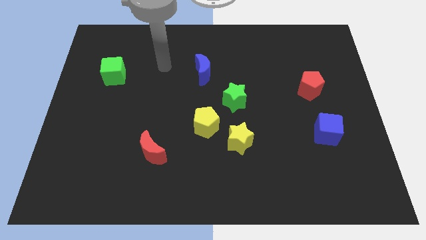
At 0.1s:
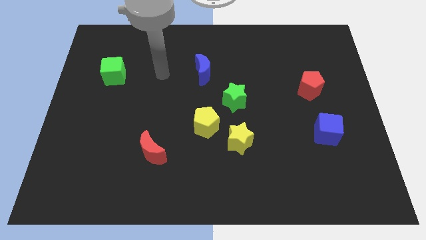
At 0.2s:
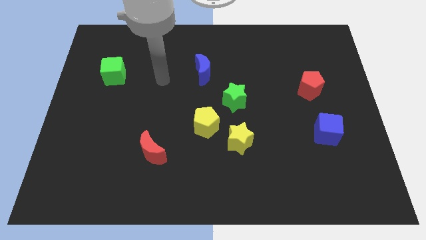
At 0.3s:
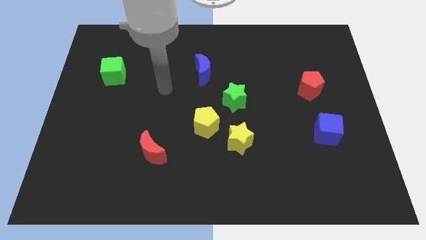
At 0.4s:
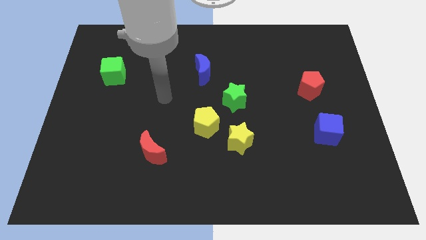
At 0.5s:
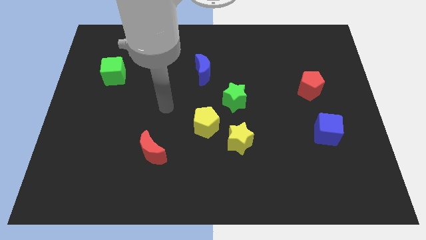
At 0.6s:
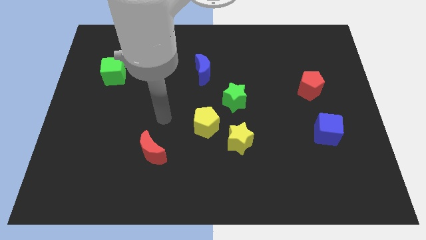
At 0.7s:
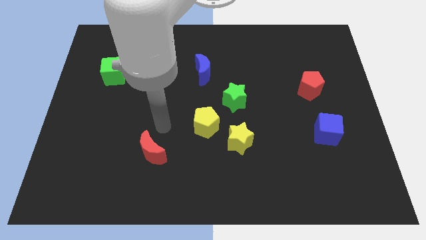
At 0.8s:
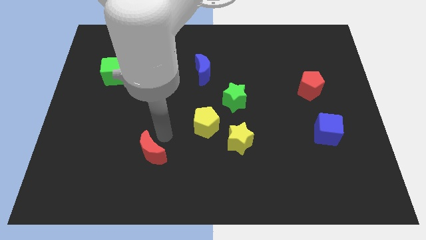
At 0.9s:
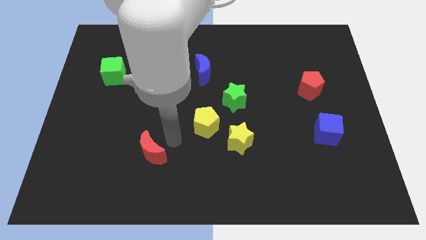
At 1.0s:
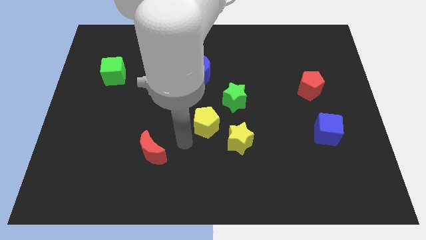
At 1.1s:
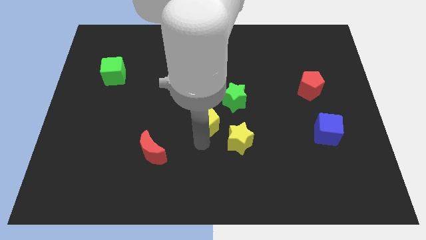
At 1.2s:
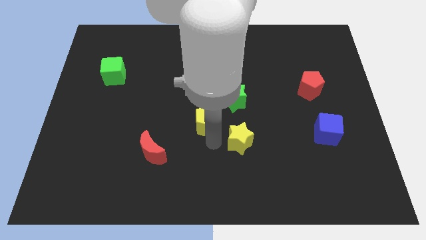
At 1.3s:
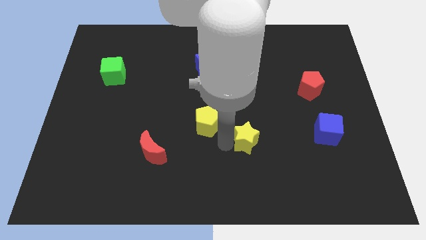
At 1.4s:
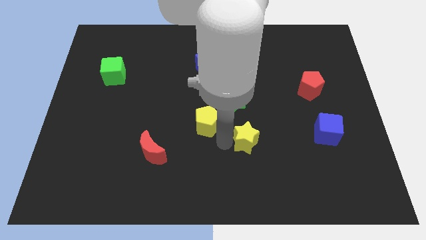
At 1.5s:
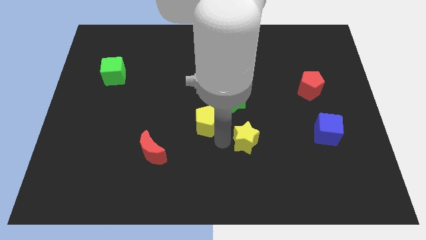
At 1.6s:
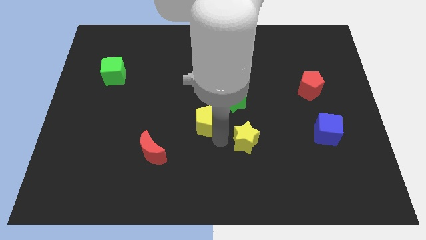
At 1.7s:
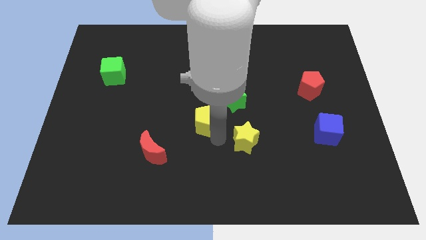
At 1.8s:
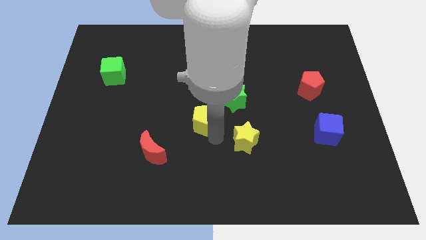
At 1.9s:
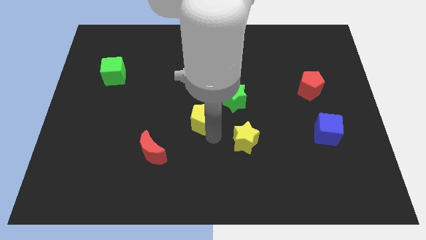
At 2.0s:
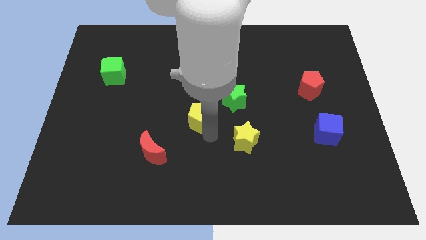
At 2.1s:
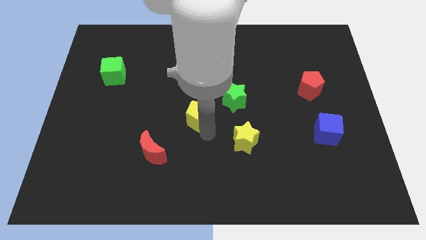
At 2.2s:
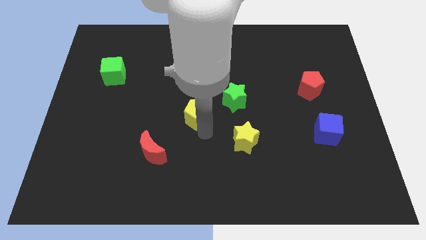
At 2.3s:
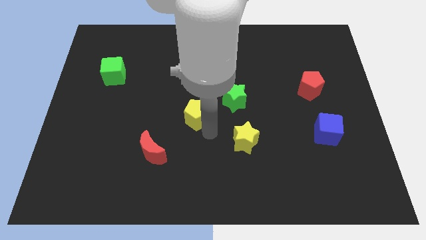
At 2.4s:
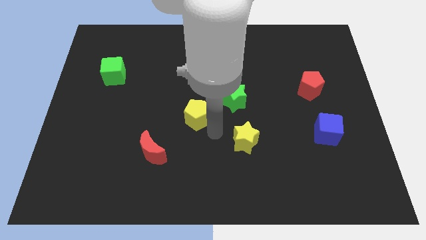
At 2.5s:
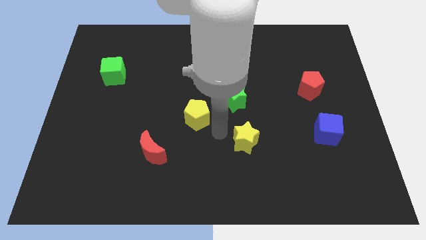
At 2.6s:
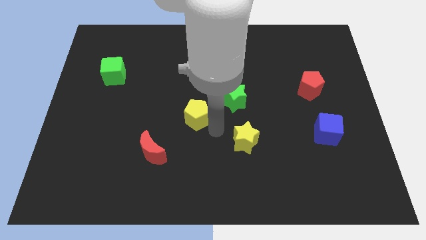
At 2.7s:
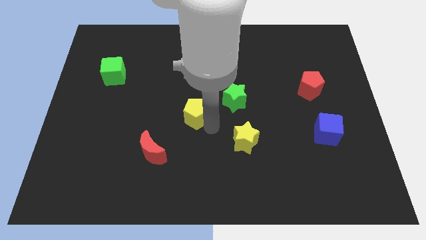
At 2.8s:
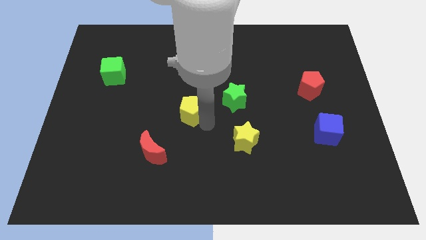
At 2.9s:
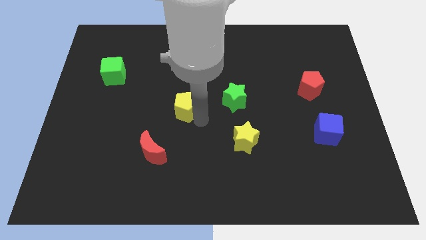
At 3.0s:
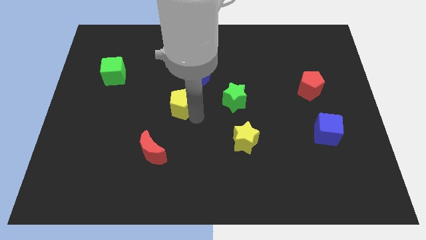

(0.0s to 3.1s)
slightly push the yellow pentagon upwards and left

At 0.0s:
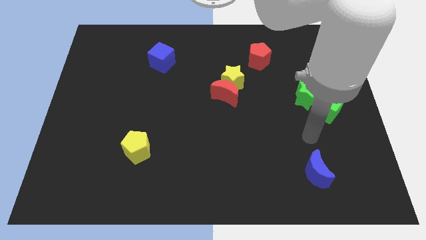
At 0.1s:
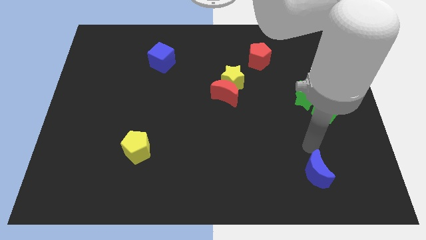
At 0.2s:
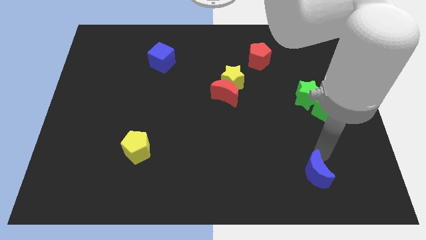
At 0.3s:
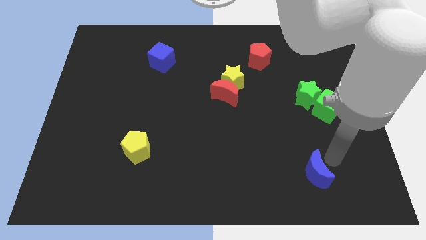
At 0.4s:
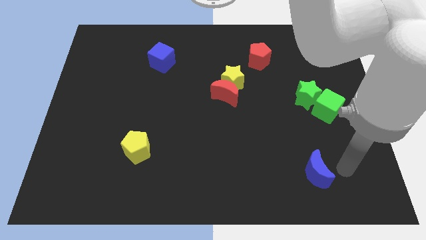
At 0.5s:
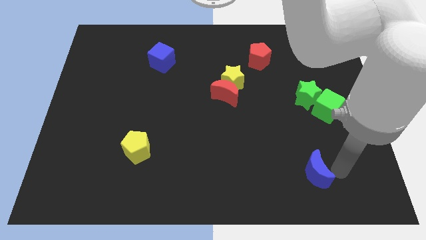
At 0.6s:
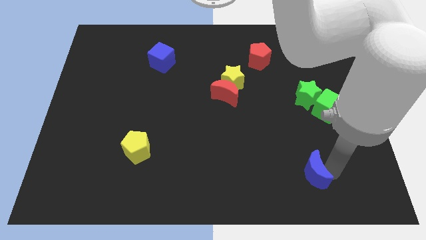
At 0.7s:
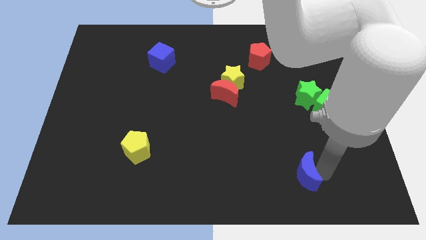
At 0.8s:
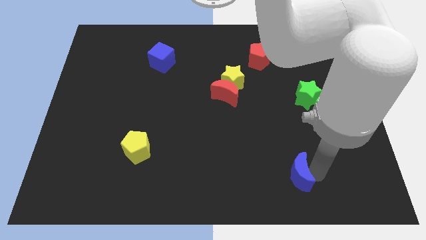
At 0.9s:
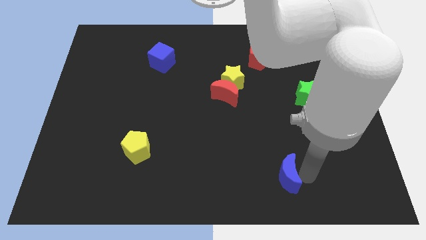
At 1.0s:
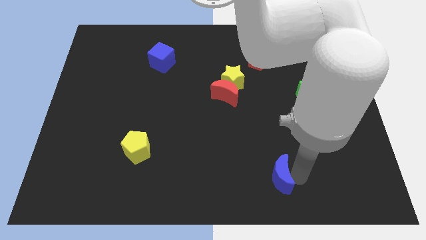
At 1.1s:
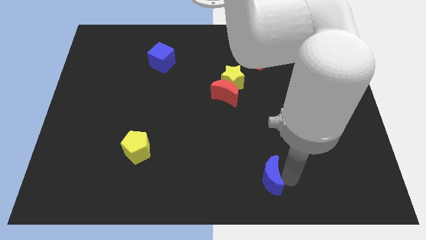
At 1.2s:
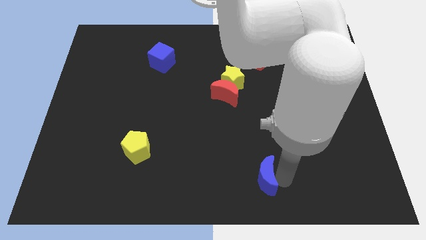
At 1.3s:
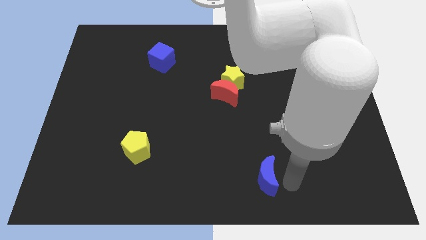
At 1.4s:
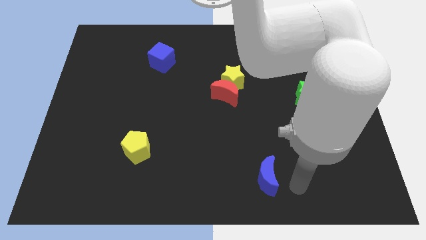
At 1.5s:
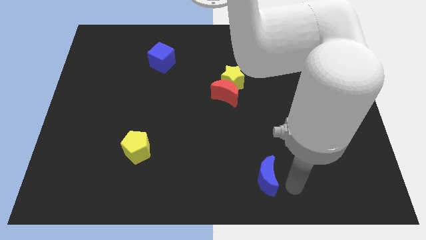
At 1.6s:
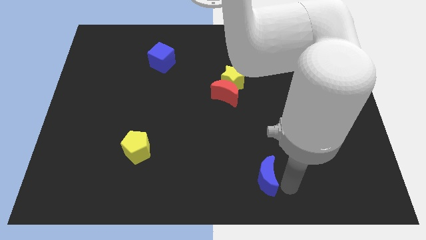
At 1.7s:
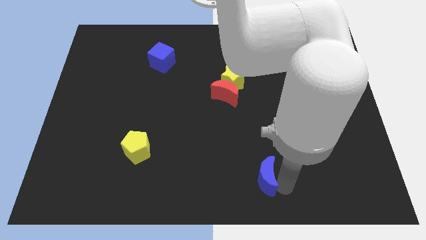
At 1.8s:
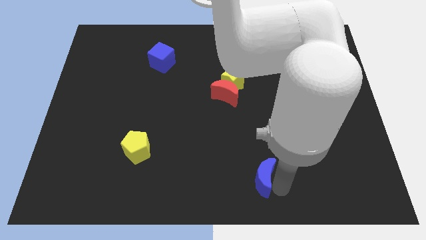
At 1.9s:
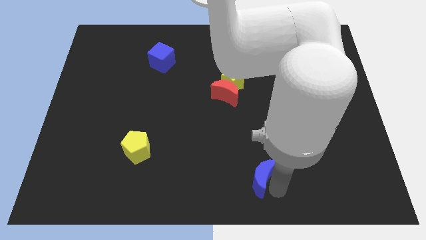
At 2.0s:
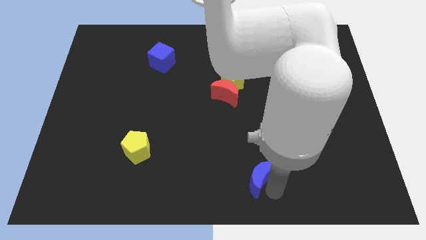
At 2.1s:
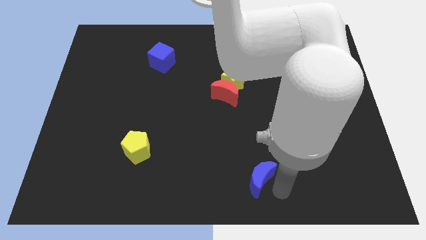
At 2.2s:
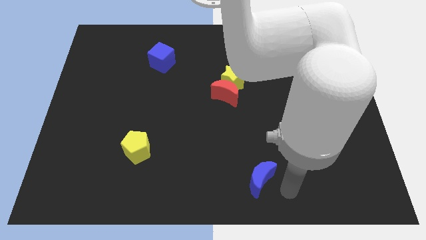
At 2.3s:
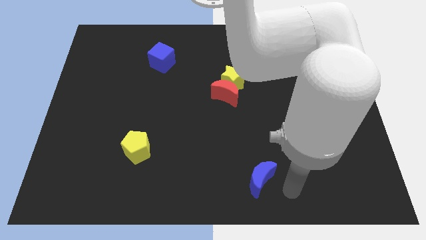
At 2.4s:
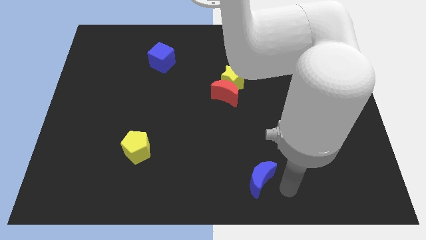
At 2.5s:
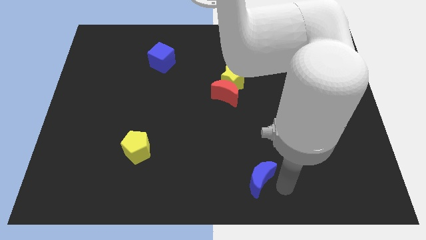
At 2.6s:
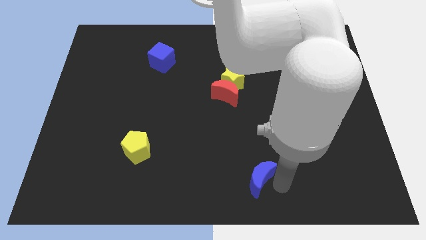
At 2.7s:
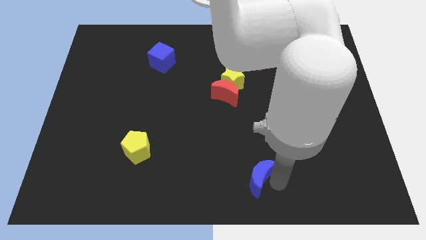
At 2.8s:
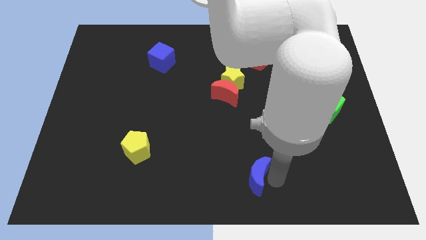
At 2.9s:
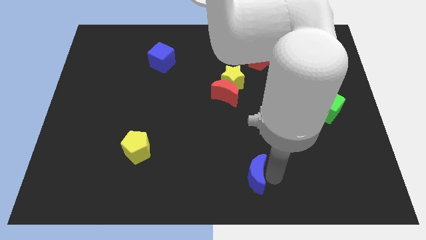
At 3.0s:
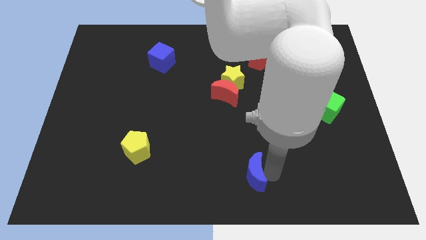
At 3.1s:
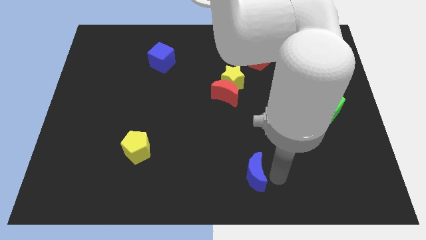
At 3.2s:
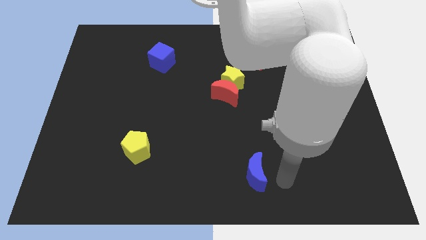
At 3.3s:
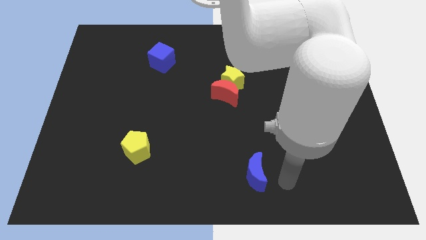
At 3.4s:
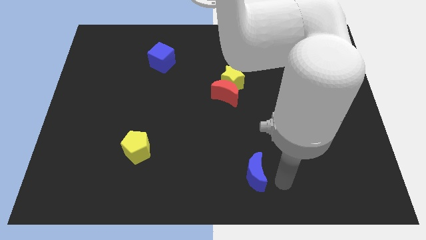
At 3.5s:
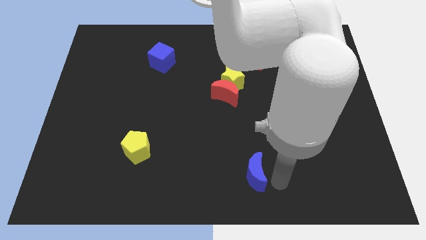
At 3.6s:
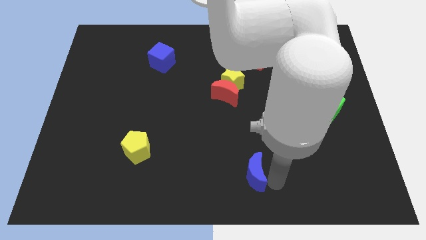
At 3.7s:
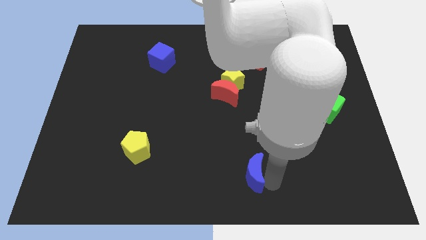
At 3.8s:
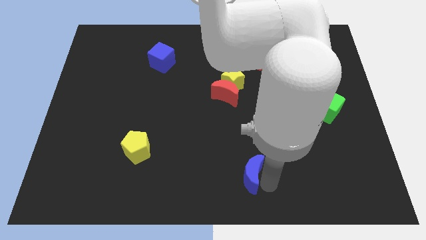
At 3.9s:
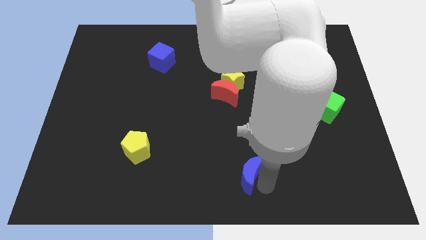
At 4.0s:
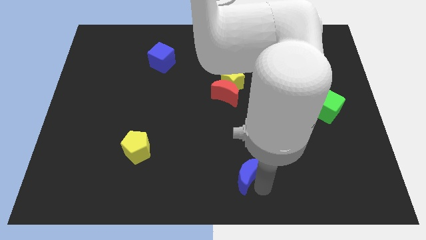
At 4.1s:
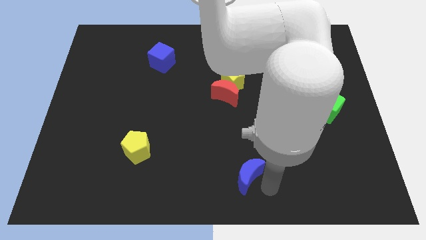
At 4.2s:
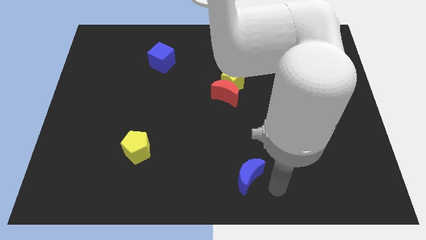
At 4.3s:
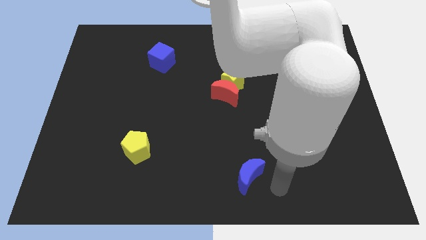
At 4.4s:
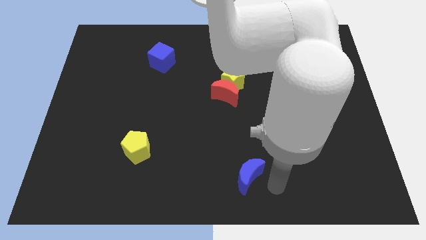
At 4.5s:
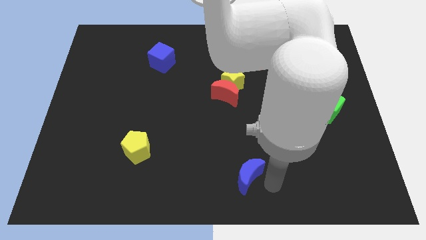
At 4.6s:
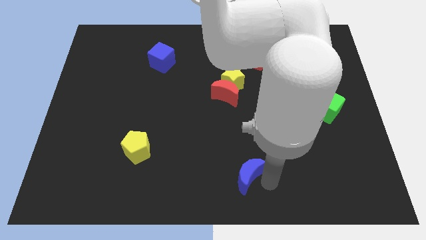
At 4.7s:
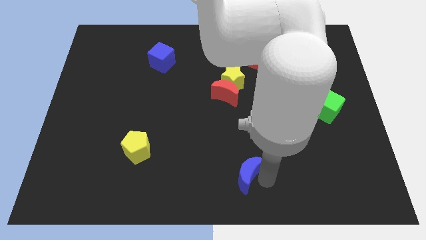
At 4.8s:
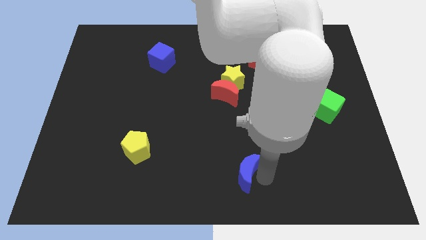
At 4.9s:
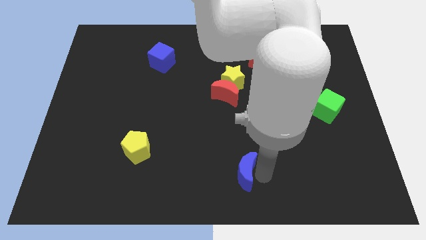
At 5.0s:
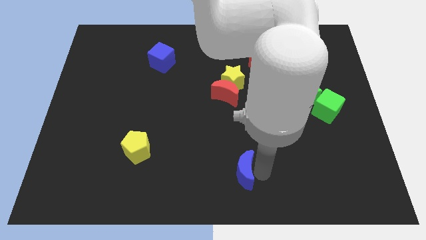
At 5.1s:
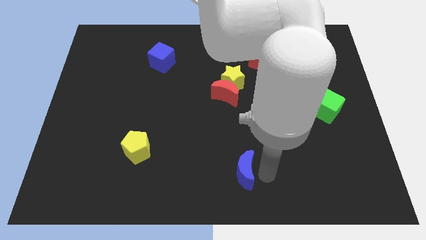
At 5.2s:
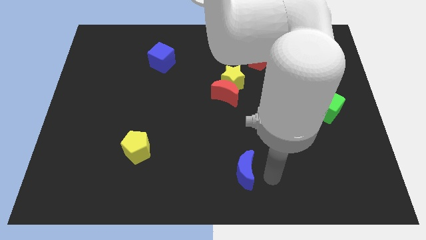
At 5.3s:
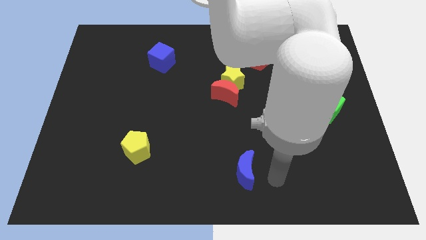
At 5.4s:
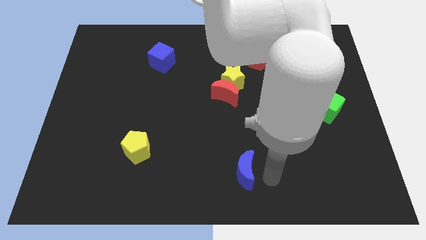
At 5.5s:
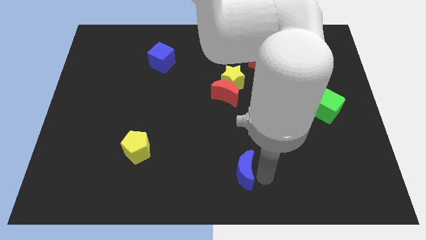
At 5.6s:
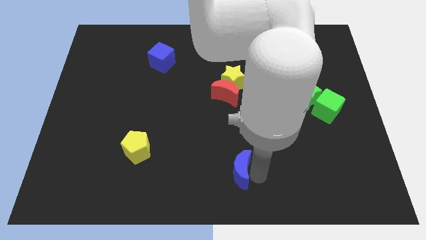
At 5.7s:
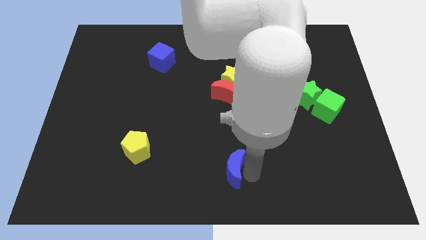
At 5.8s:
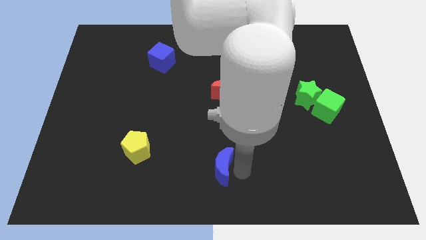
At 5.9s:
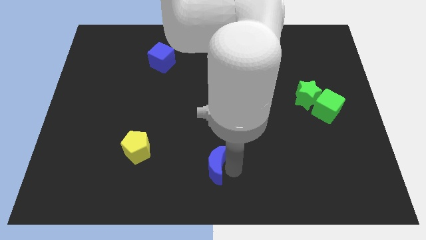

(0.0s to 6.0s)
slide the blue moon to the left
